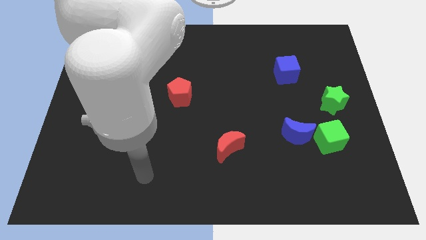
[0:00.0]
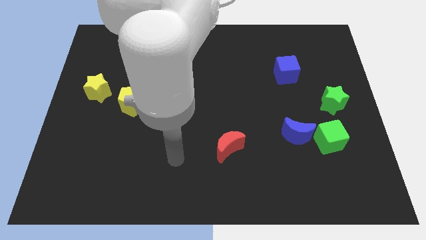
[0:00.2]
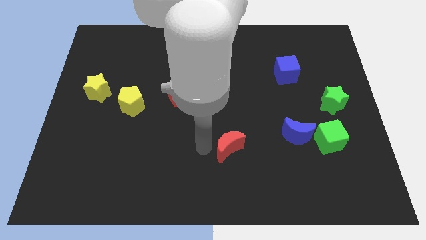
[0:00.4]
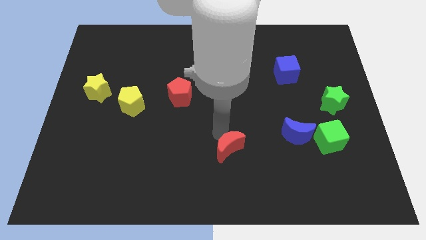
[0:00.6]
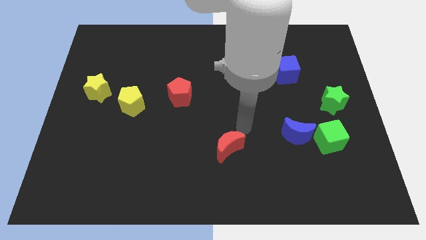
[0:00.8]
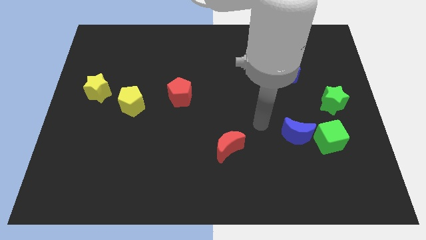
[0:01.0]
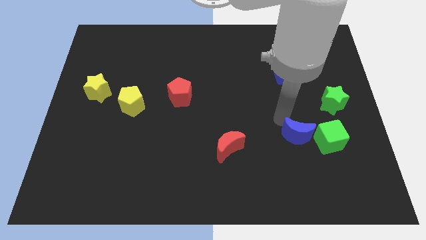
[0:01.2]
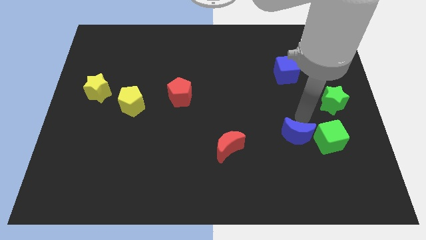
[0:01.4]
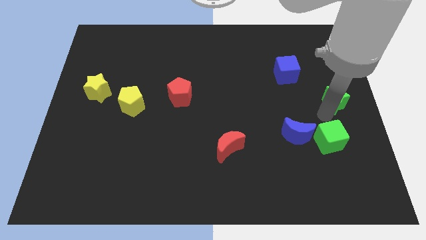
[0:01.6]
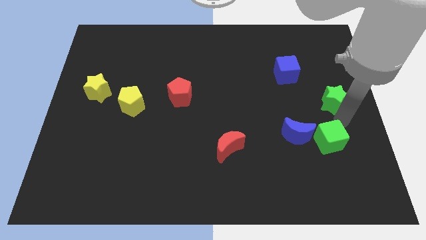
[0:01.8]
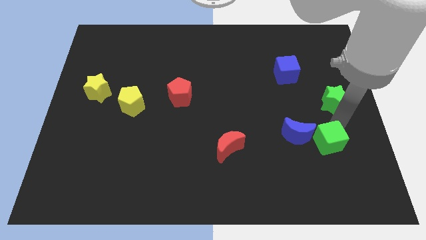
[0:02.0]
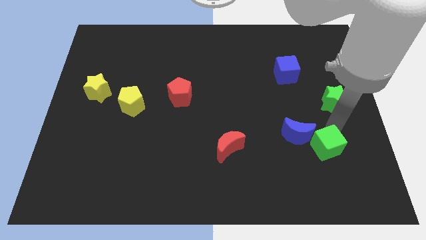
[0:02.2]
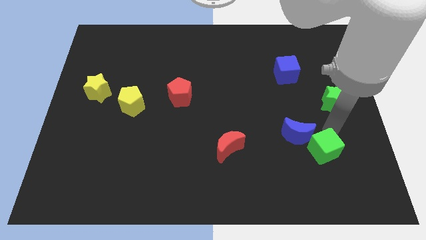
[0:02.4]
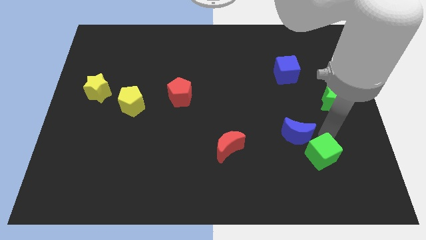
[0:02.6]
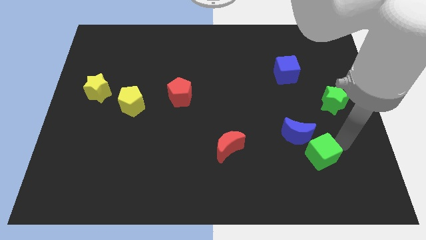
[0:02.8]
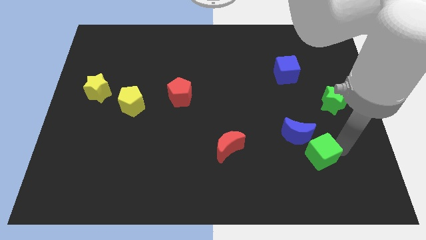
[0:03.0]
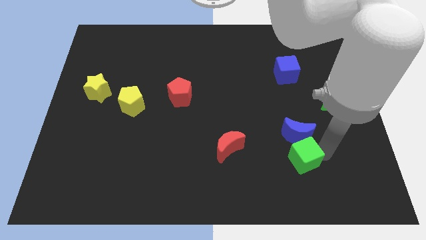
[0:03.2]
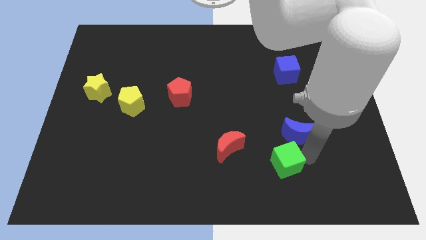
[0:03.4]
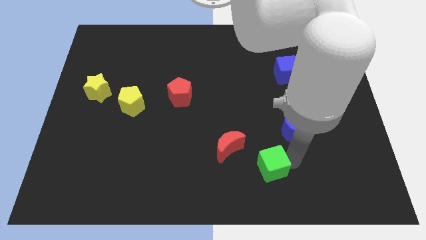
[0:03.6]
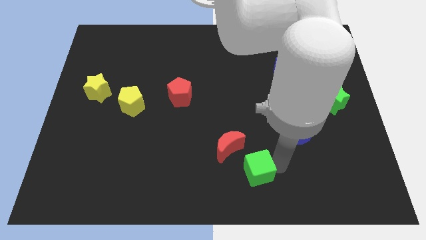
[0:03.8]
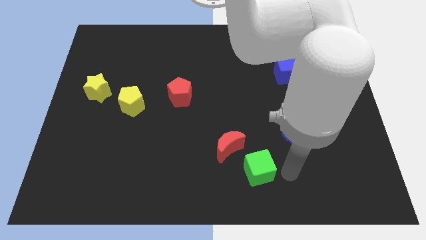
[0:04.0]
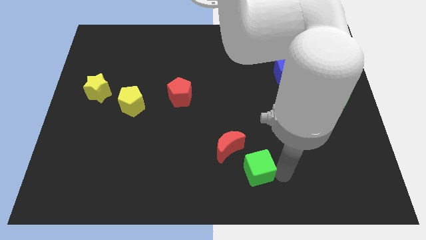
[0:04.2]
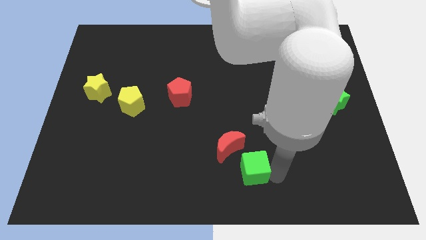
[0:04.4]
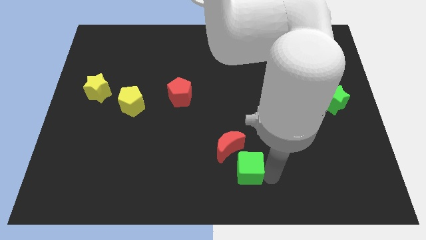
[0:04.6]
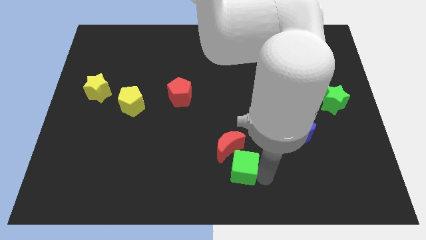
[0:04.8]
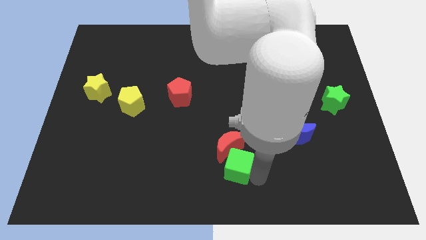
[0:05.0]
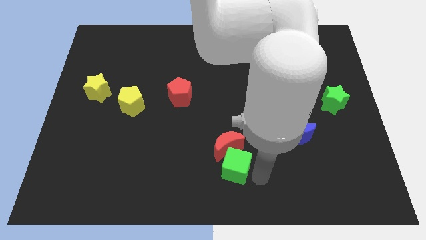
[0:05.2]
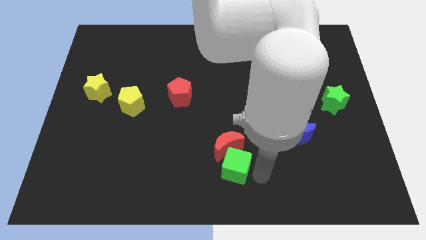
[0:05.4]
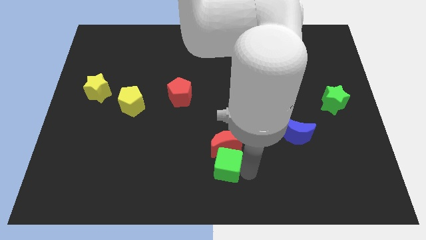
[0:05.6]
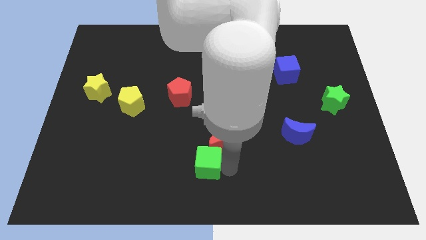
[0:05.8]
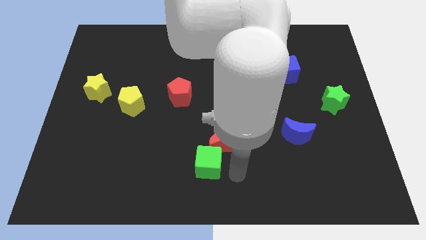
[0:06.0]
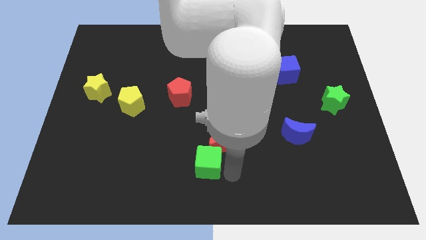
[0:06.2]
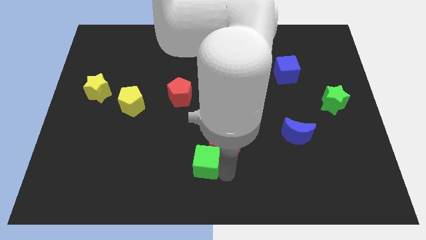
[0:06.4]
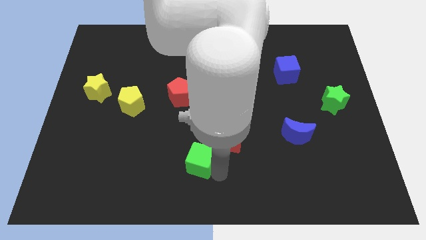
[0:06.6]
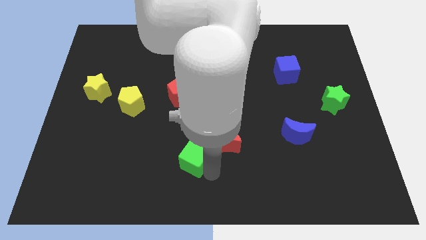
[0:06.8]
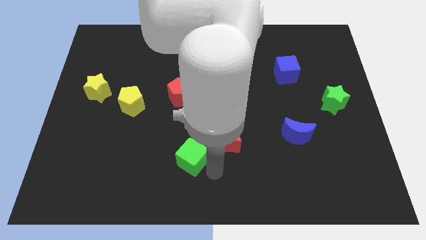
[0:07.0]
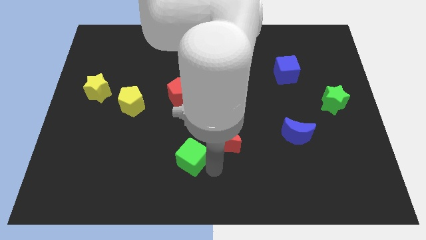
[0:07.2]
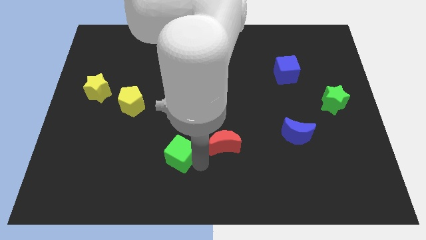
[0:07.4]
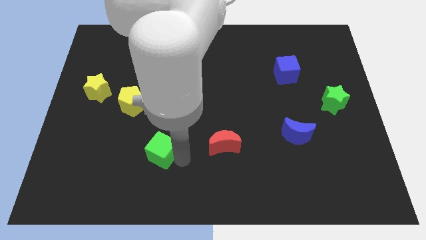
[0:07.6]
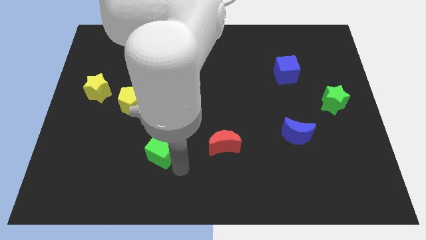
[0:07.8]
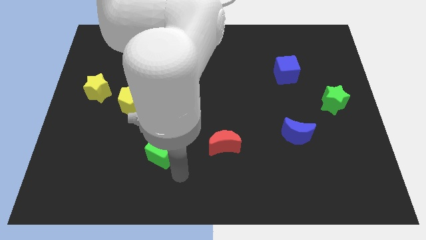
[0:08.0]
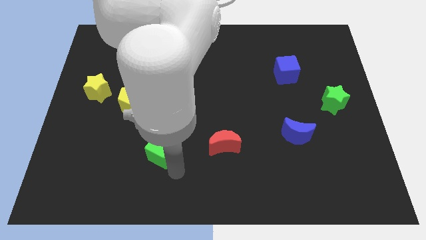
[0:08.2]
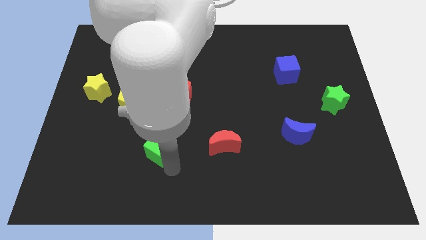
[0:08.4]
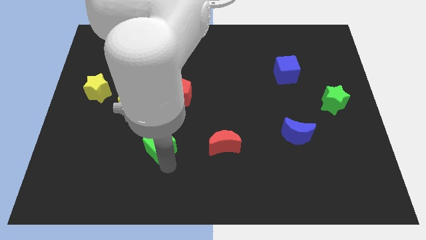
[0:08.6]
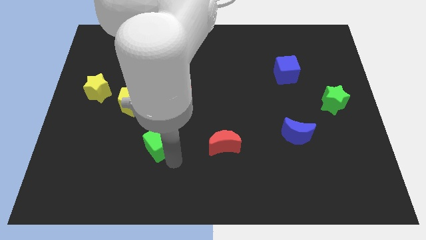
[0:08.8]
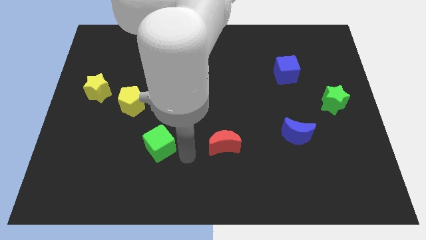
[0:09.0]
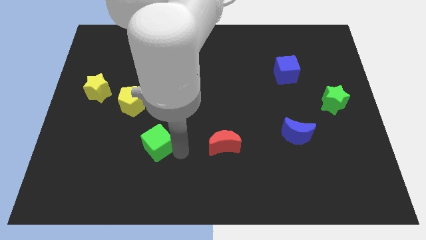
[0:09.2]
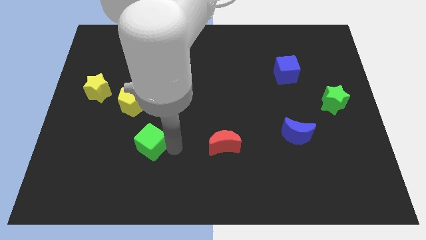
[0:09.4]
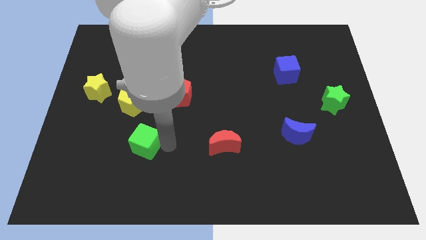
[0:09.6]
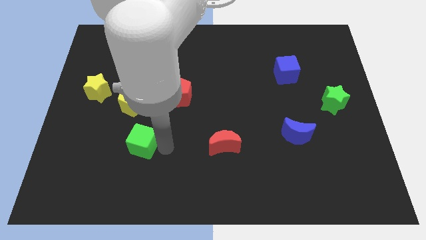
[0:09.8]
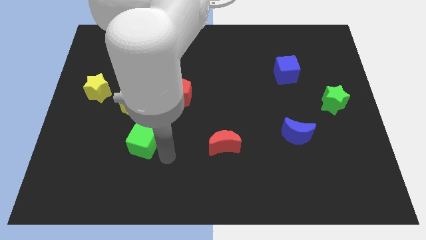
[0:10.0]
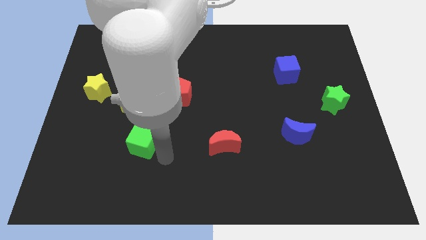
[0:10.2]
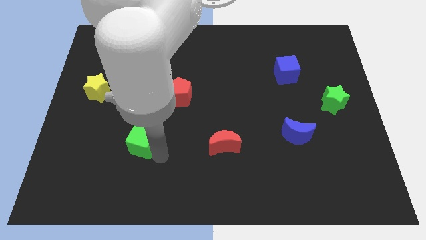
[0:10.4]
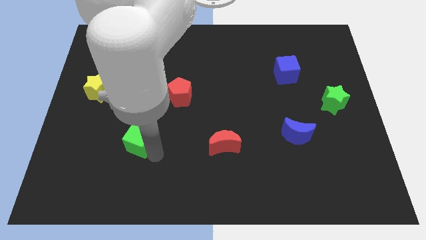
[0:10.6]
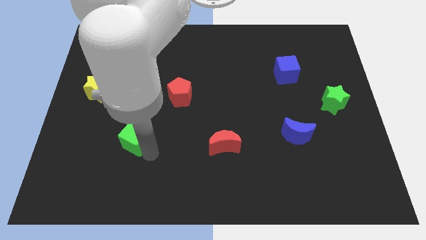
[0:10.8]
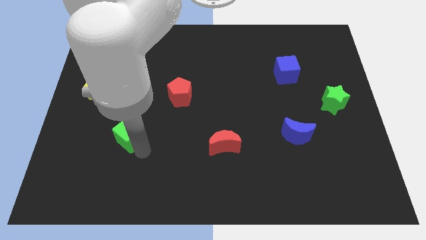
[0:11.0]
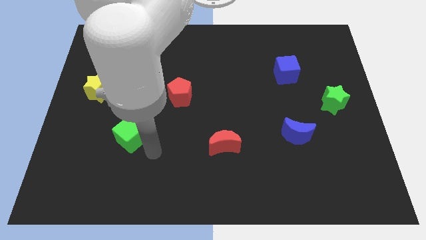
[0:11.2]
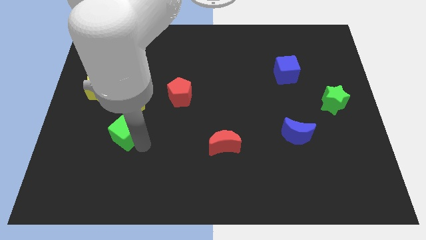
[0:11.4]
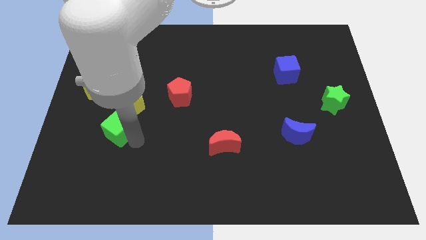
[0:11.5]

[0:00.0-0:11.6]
move the green cube to the bottom left side of the yellow pentagon

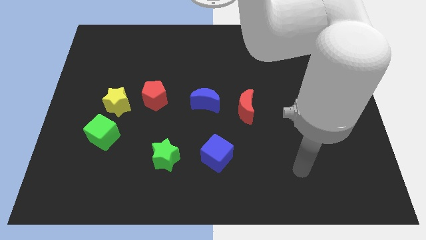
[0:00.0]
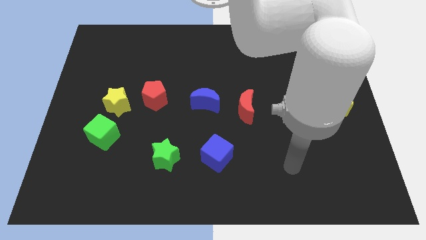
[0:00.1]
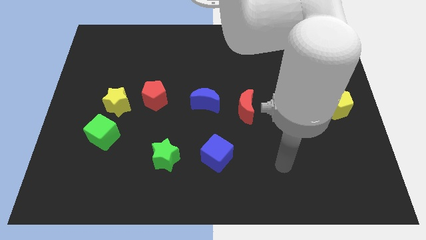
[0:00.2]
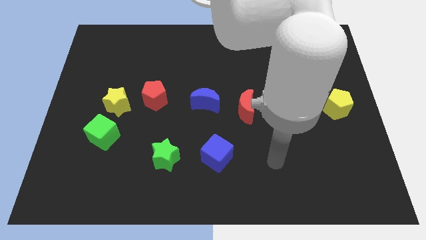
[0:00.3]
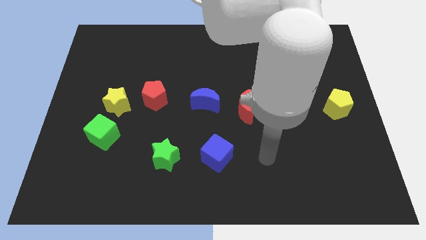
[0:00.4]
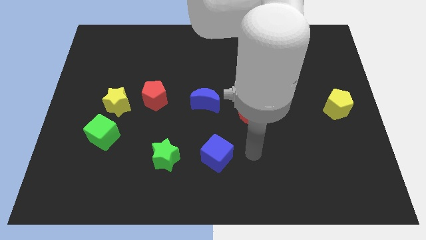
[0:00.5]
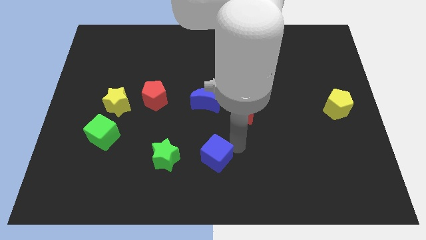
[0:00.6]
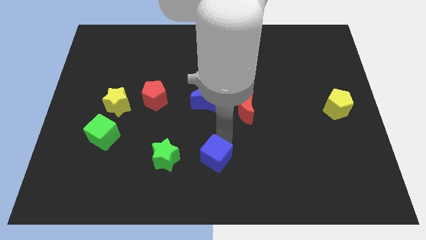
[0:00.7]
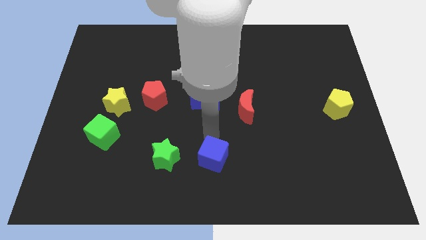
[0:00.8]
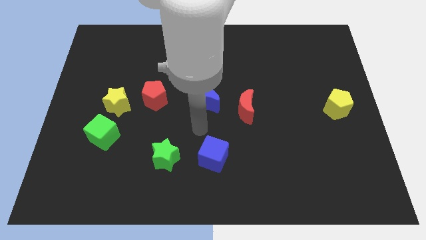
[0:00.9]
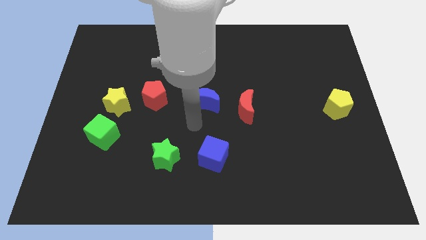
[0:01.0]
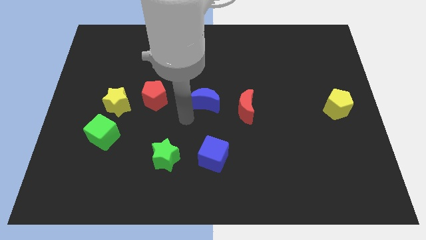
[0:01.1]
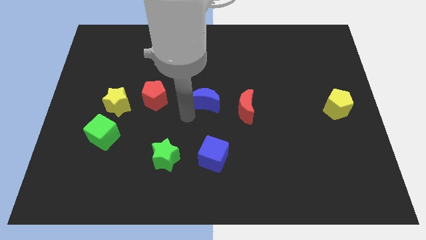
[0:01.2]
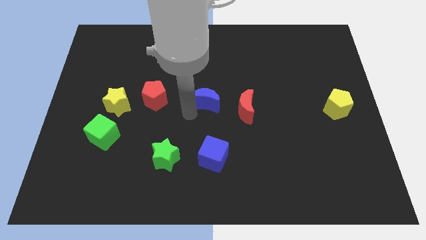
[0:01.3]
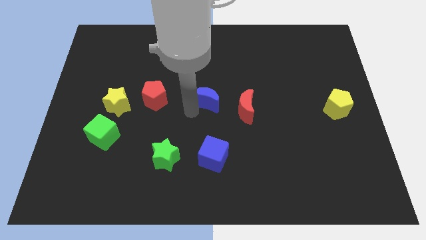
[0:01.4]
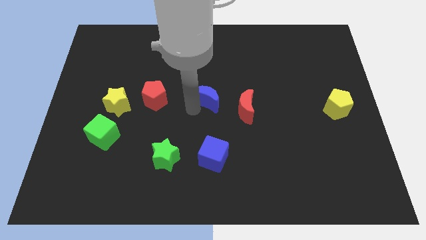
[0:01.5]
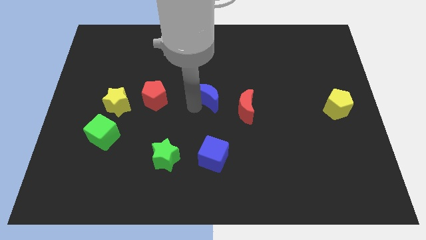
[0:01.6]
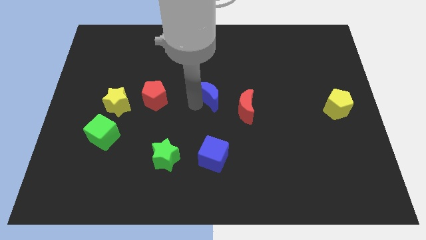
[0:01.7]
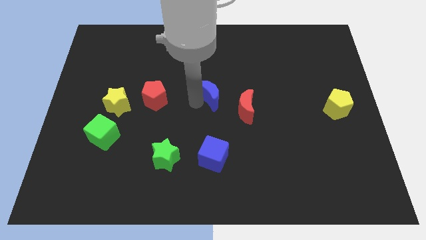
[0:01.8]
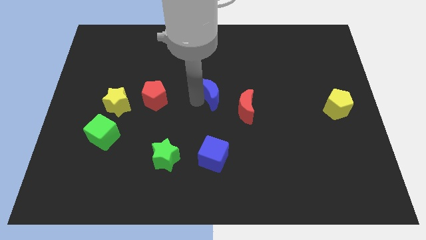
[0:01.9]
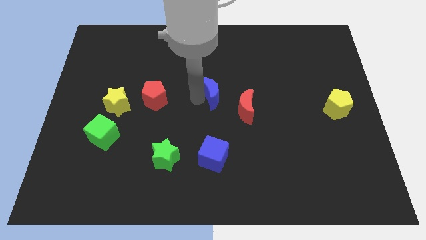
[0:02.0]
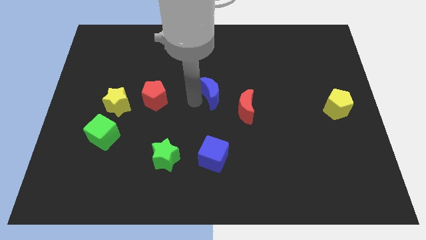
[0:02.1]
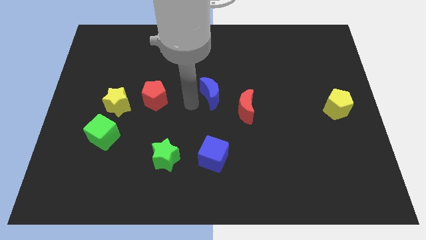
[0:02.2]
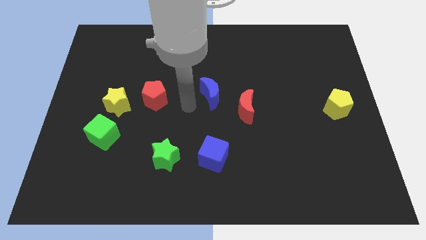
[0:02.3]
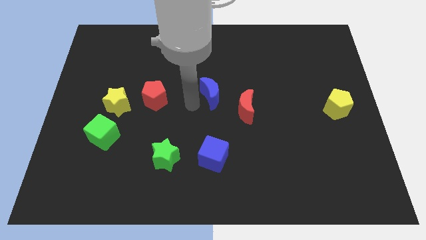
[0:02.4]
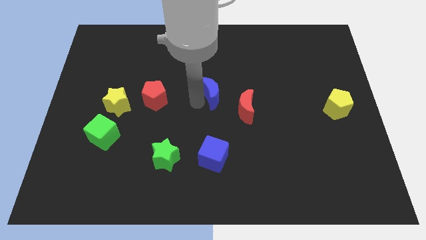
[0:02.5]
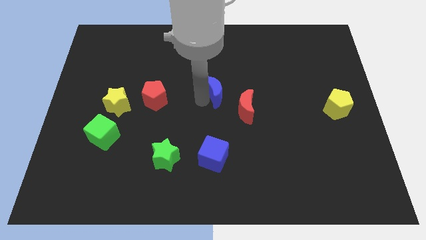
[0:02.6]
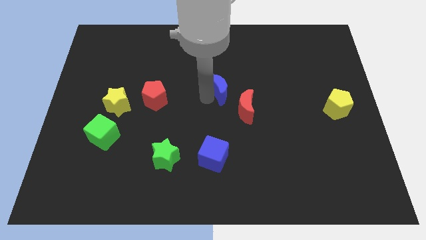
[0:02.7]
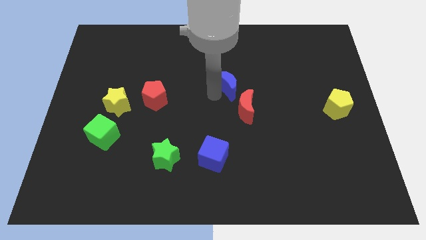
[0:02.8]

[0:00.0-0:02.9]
put the blue moon above the red moon
